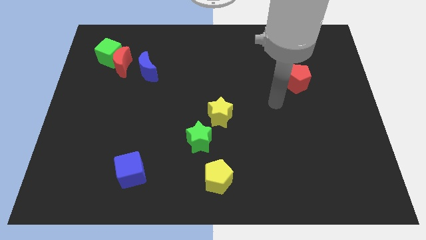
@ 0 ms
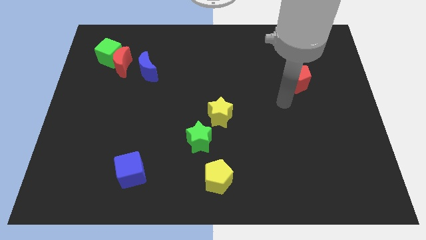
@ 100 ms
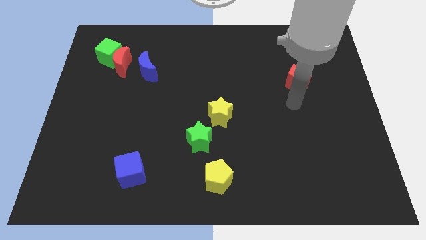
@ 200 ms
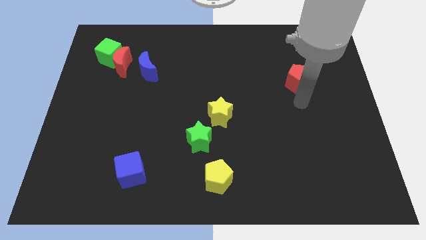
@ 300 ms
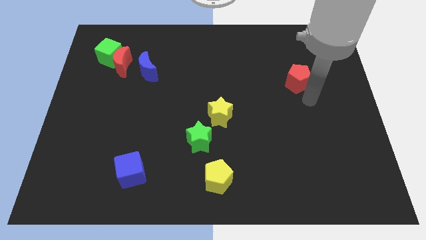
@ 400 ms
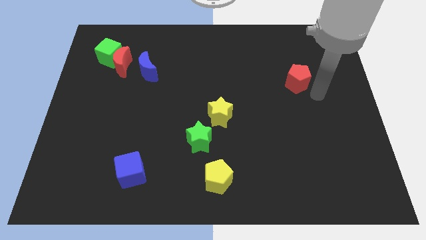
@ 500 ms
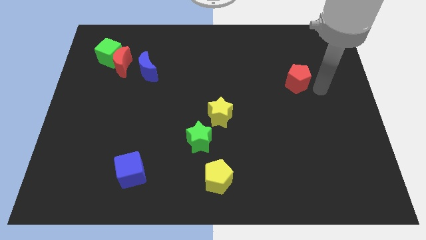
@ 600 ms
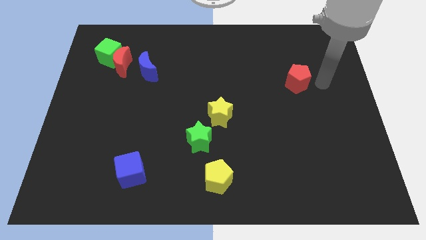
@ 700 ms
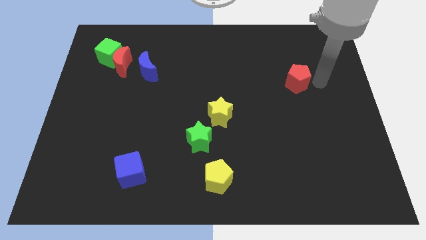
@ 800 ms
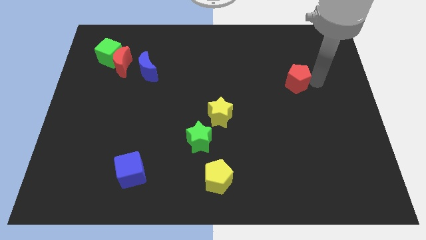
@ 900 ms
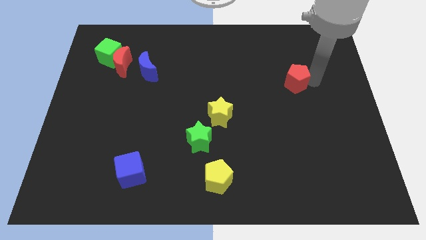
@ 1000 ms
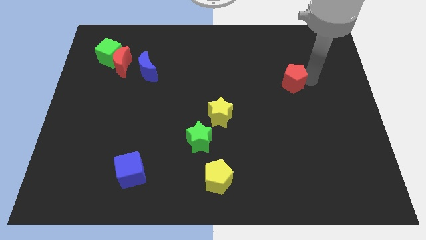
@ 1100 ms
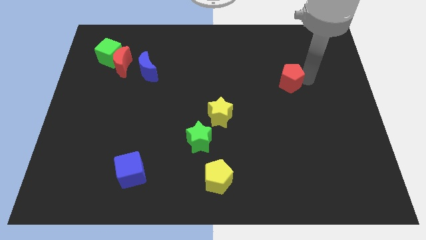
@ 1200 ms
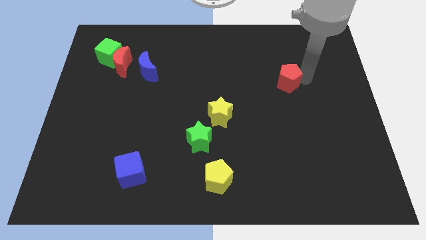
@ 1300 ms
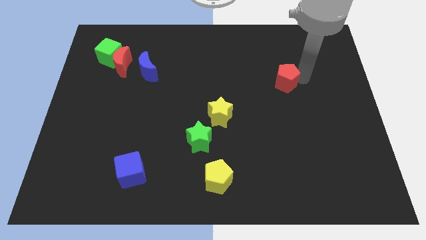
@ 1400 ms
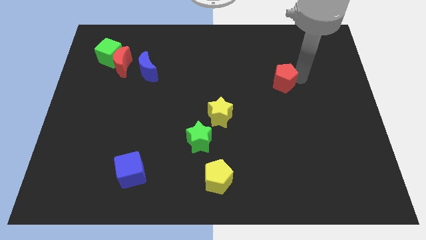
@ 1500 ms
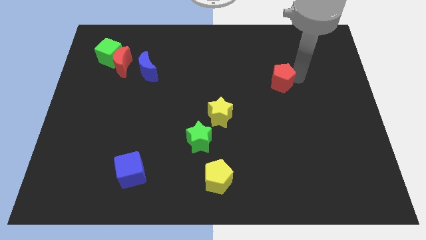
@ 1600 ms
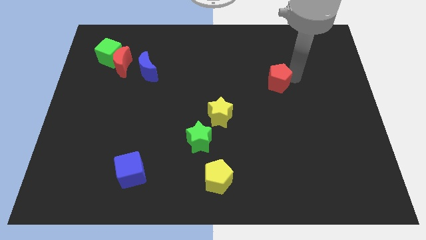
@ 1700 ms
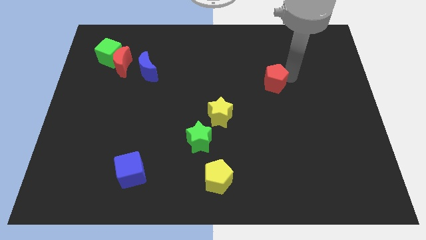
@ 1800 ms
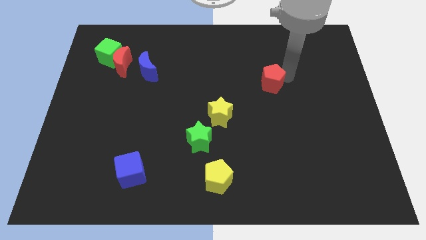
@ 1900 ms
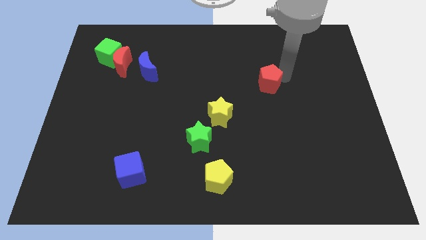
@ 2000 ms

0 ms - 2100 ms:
move the red pentagon left a bit

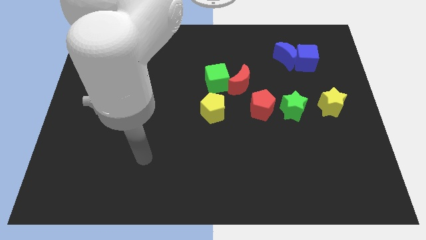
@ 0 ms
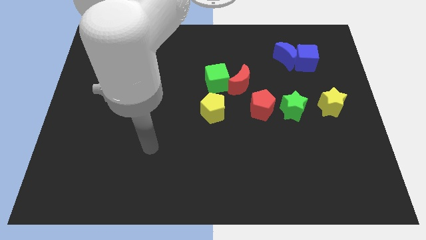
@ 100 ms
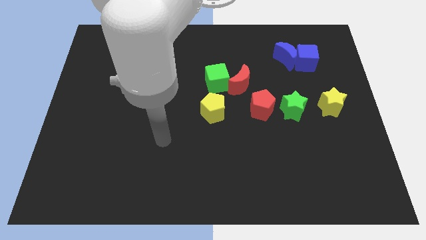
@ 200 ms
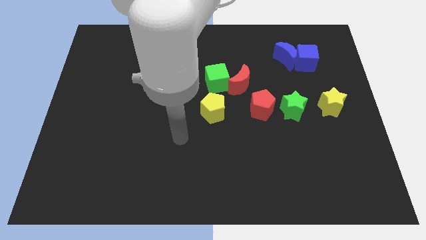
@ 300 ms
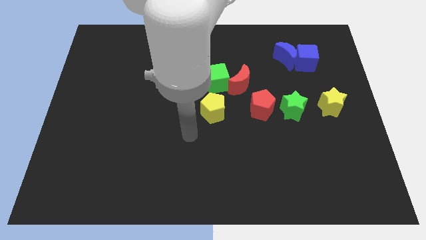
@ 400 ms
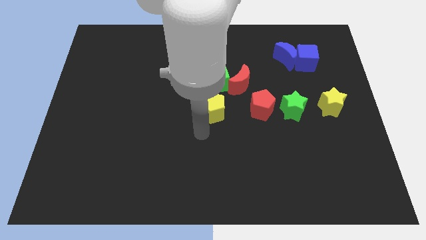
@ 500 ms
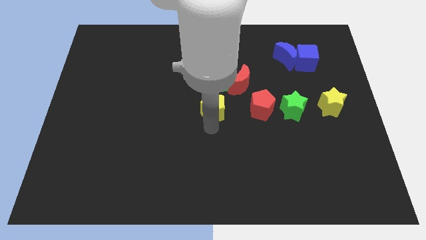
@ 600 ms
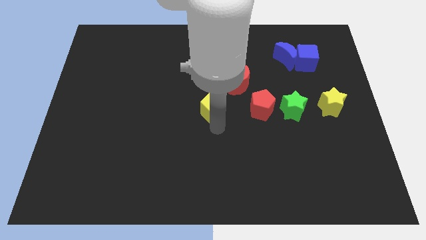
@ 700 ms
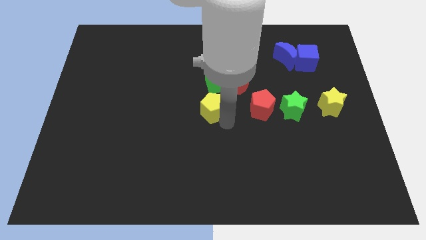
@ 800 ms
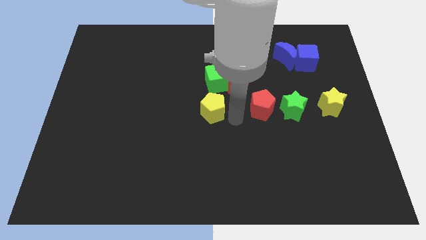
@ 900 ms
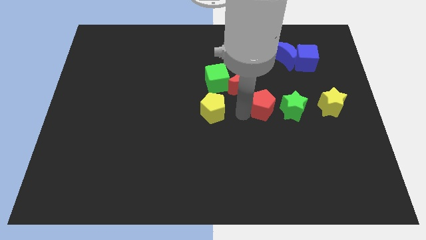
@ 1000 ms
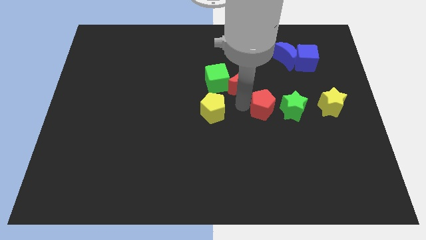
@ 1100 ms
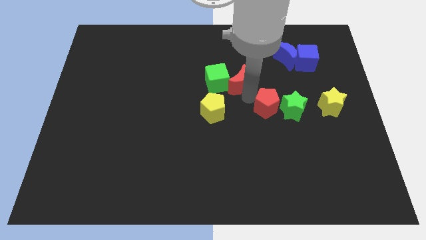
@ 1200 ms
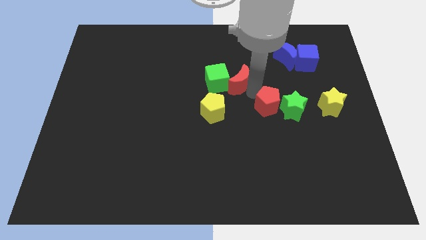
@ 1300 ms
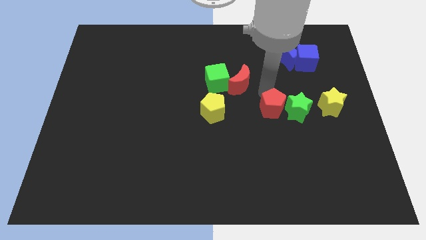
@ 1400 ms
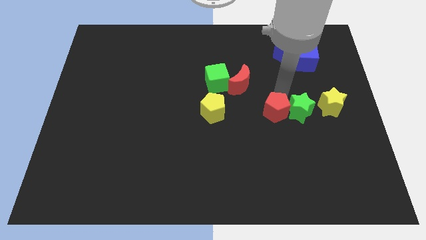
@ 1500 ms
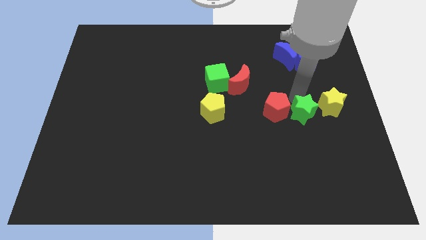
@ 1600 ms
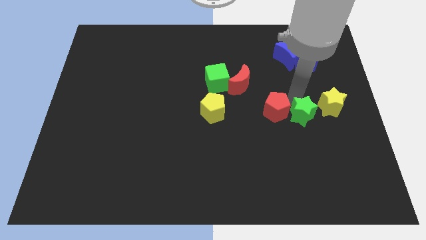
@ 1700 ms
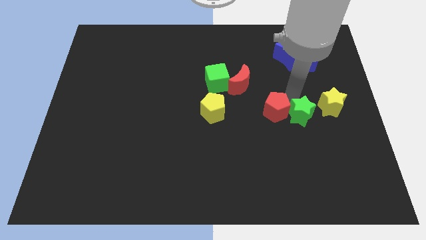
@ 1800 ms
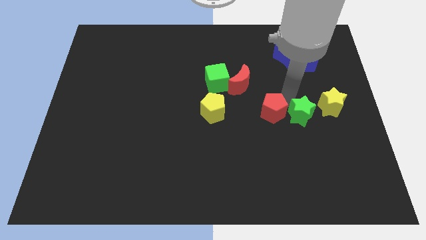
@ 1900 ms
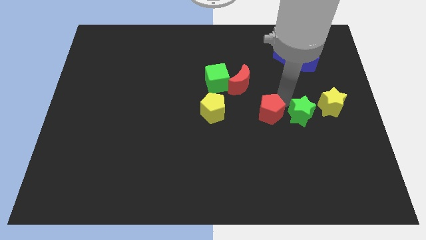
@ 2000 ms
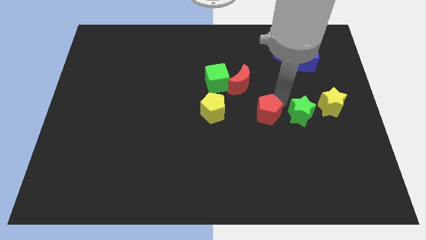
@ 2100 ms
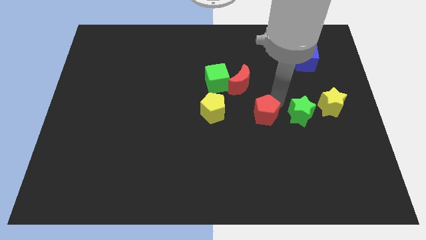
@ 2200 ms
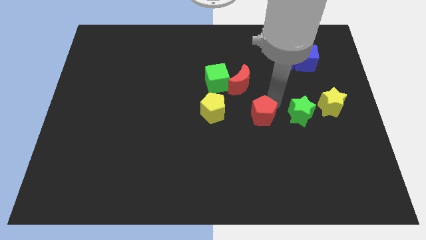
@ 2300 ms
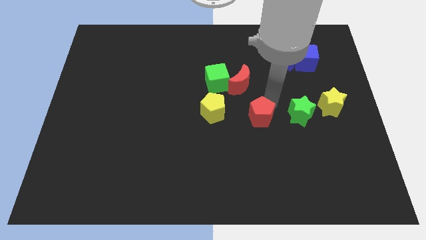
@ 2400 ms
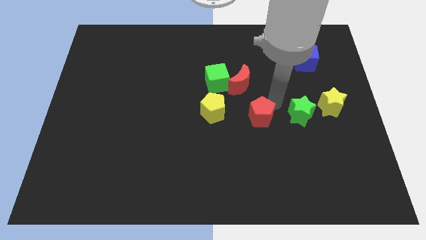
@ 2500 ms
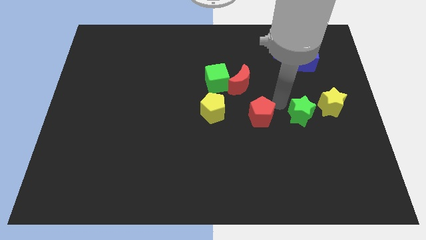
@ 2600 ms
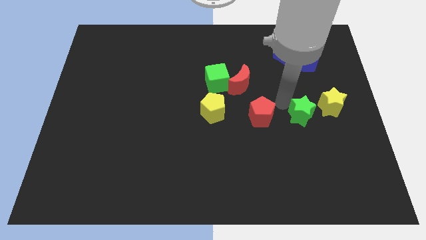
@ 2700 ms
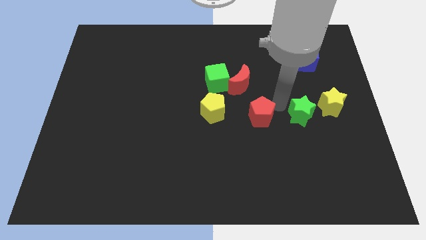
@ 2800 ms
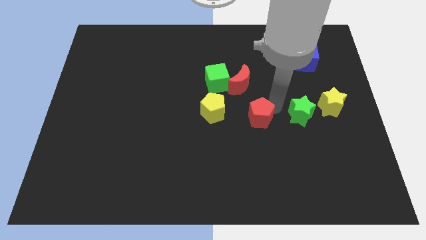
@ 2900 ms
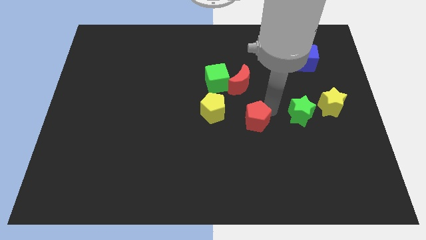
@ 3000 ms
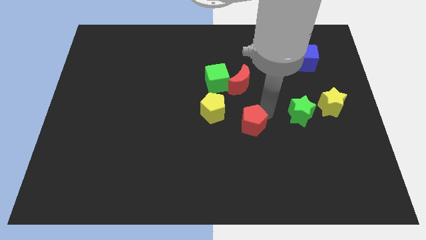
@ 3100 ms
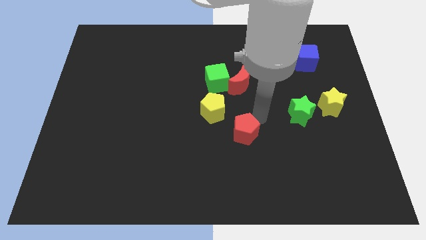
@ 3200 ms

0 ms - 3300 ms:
push the red pentagon diagonally down and left a little

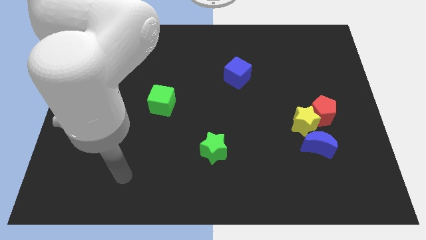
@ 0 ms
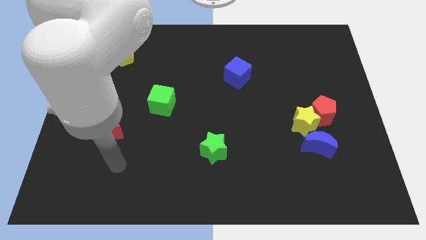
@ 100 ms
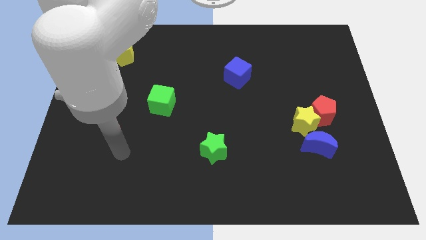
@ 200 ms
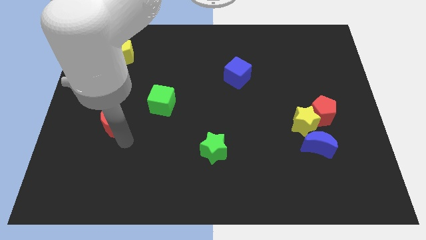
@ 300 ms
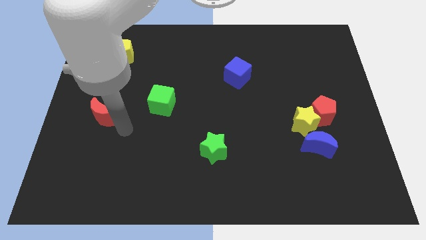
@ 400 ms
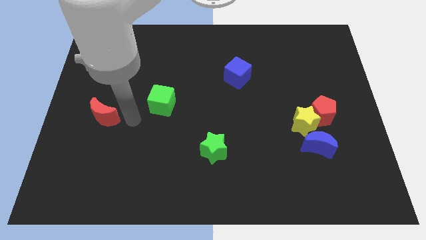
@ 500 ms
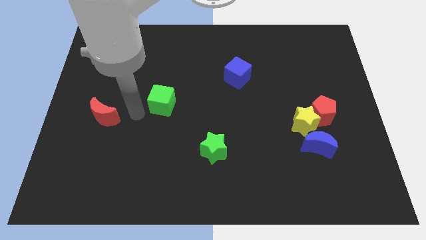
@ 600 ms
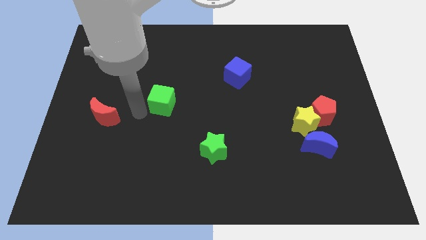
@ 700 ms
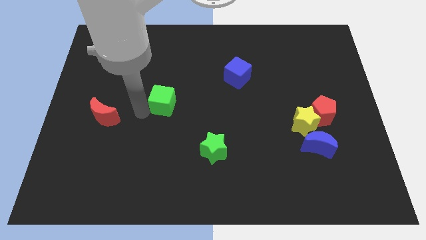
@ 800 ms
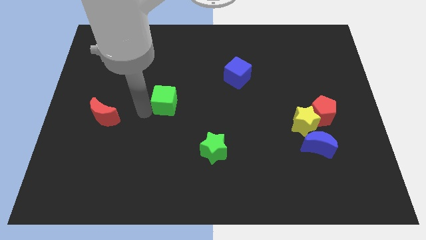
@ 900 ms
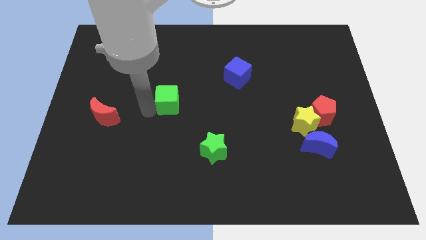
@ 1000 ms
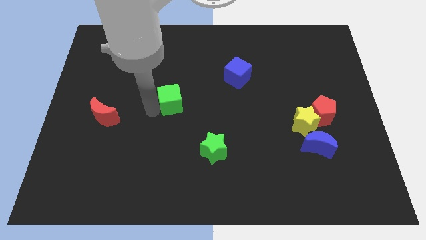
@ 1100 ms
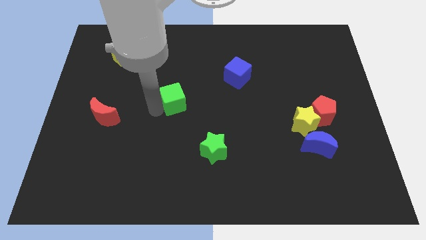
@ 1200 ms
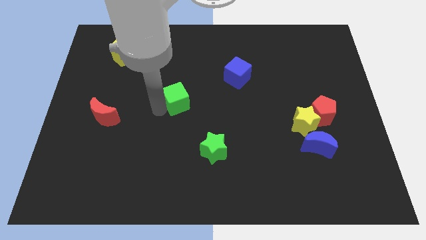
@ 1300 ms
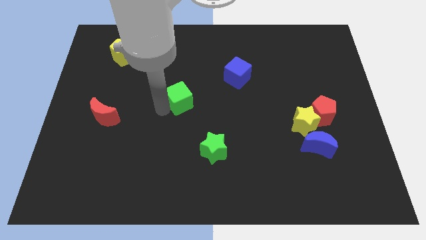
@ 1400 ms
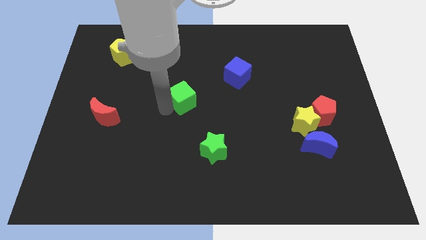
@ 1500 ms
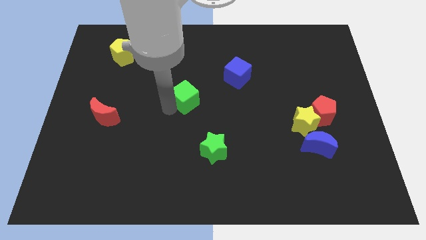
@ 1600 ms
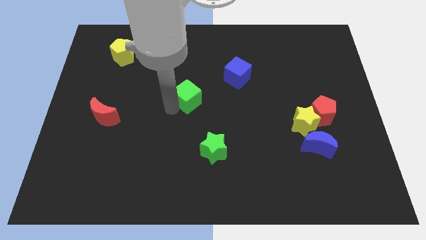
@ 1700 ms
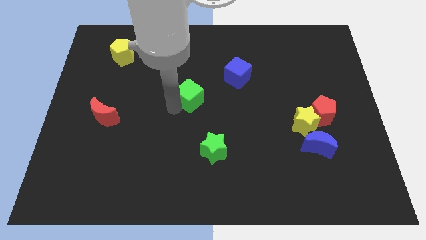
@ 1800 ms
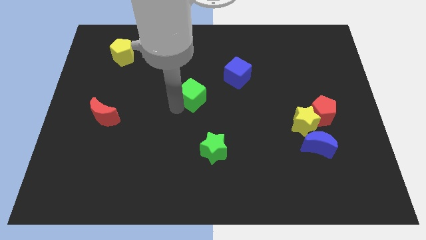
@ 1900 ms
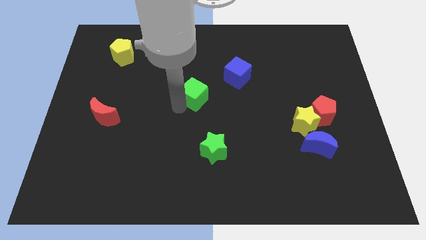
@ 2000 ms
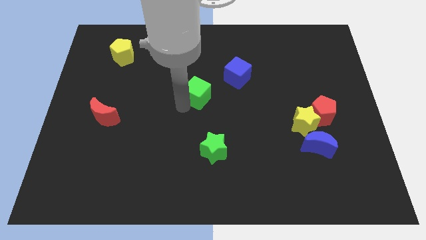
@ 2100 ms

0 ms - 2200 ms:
slide the green cube somewhat upwards and right diagonally

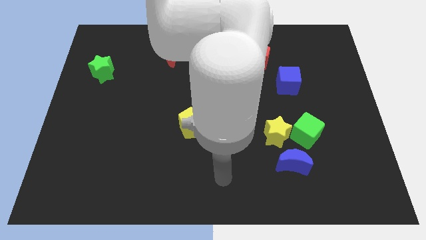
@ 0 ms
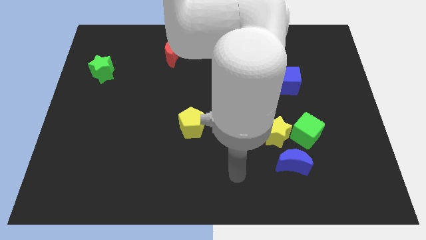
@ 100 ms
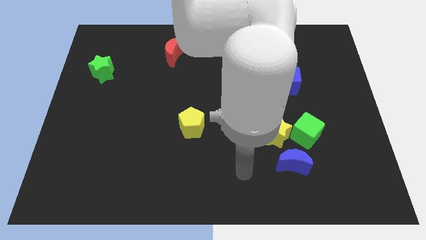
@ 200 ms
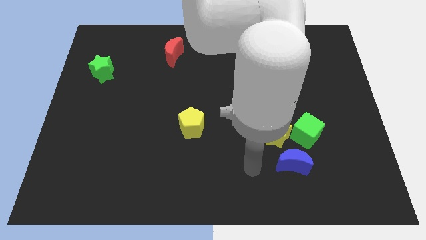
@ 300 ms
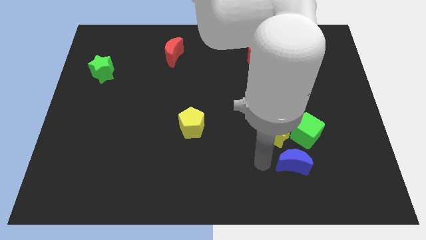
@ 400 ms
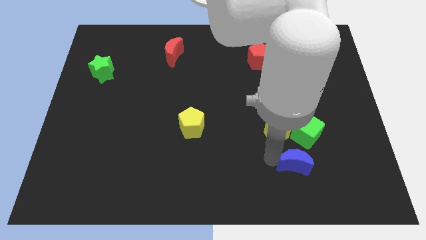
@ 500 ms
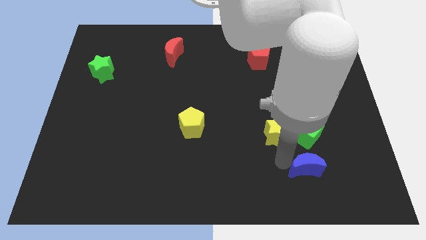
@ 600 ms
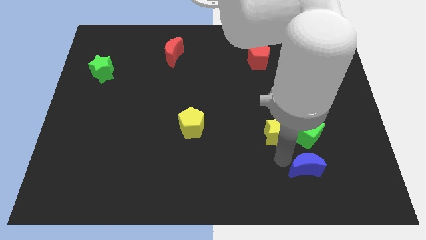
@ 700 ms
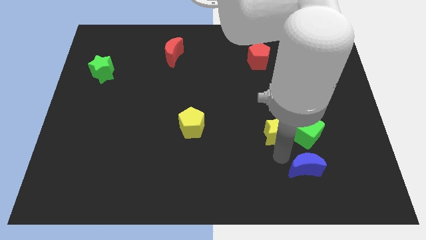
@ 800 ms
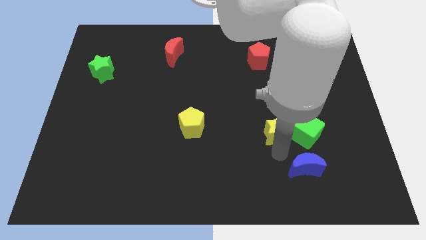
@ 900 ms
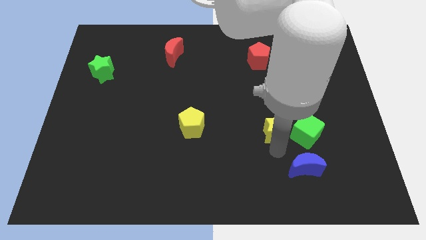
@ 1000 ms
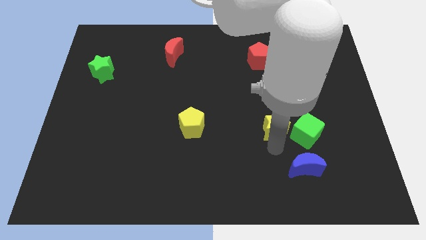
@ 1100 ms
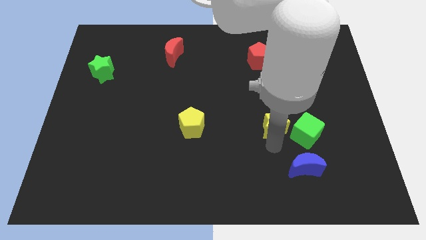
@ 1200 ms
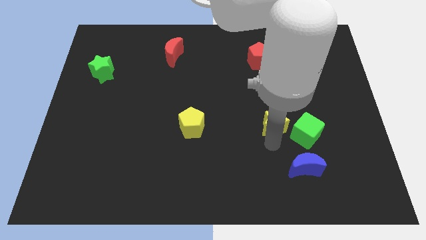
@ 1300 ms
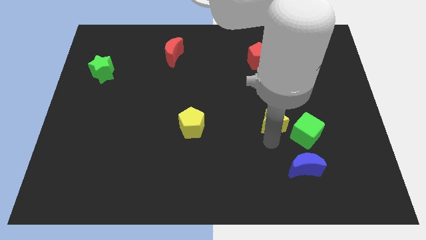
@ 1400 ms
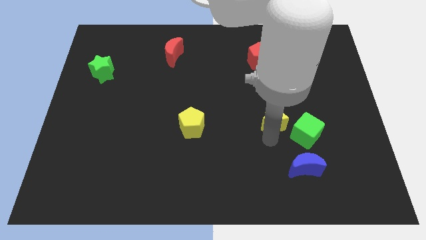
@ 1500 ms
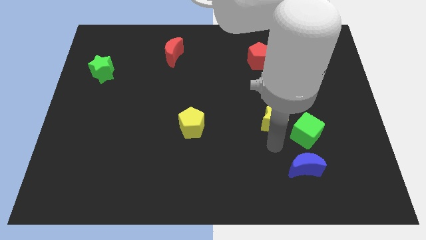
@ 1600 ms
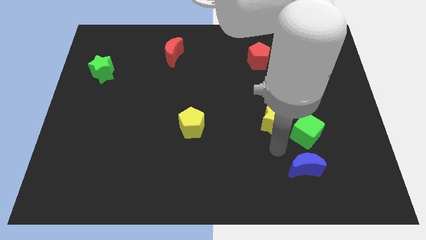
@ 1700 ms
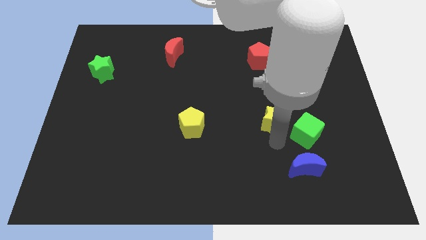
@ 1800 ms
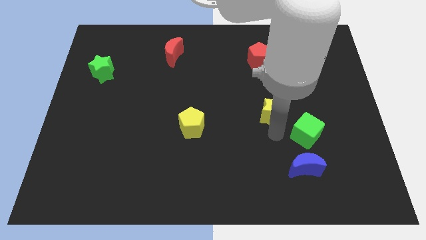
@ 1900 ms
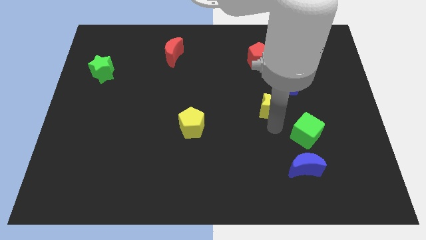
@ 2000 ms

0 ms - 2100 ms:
slide the yellow star up a little
